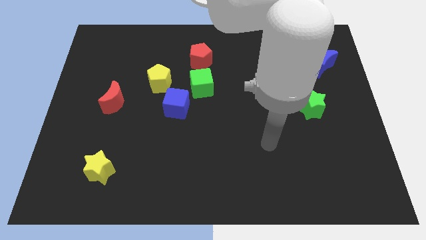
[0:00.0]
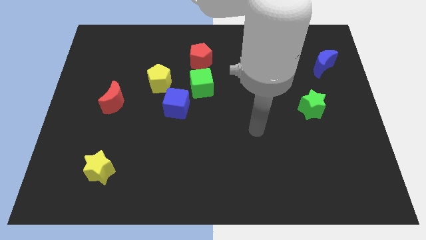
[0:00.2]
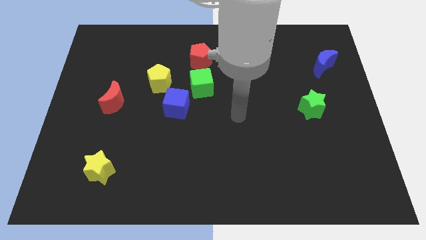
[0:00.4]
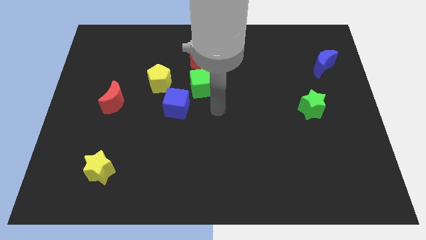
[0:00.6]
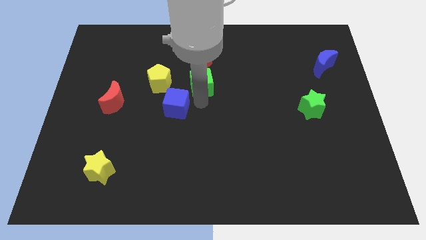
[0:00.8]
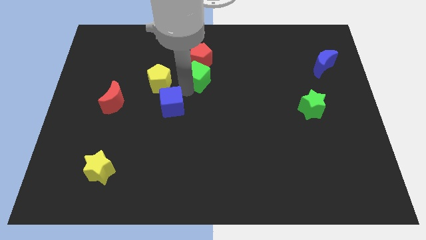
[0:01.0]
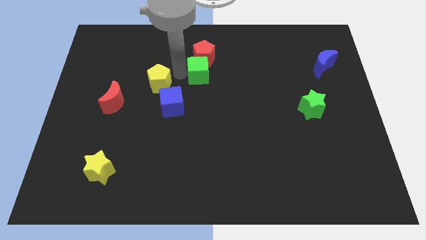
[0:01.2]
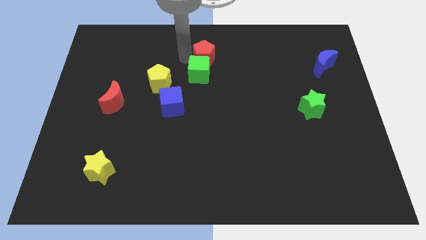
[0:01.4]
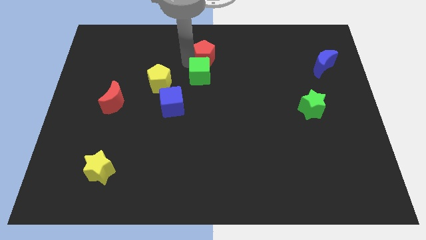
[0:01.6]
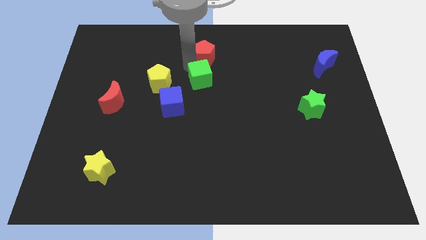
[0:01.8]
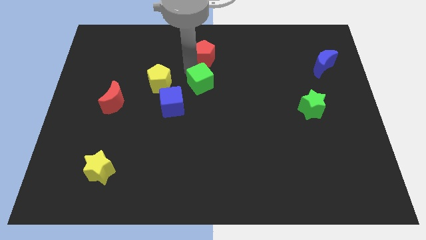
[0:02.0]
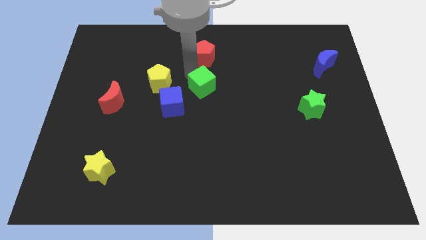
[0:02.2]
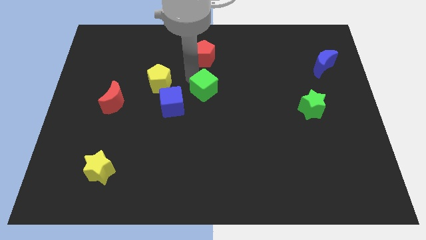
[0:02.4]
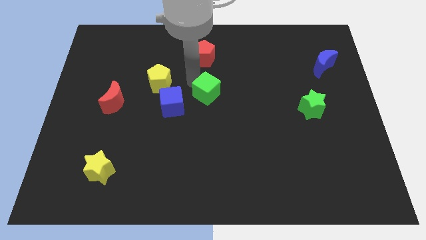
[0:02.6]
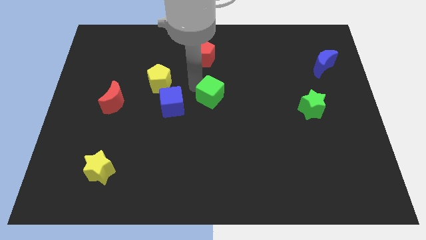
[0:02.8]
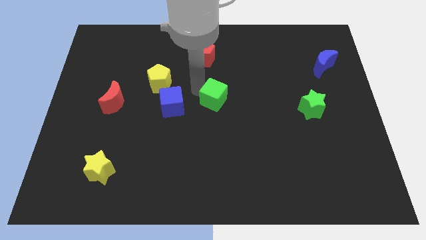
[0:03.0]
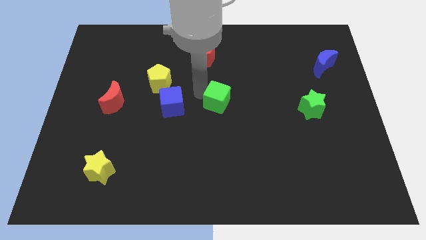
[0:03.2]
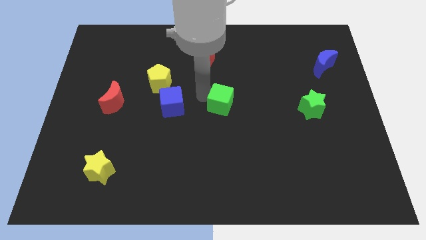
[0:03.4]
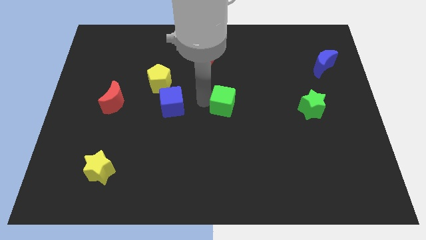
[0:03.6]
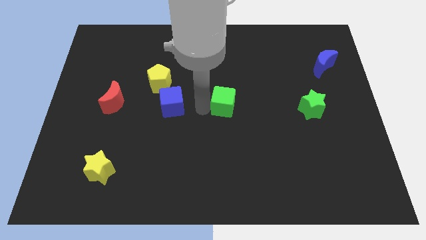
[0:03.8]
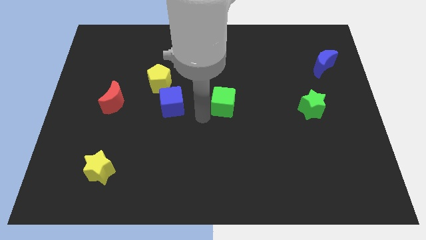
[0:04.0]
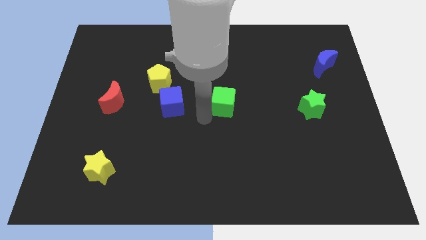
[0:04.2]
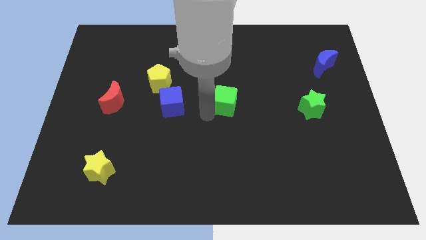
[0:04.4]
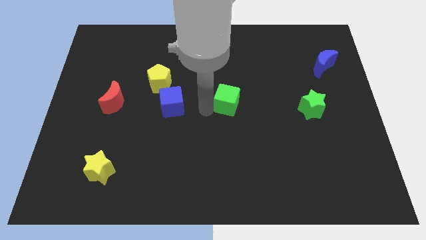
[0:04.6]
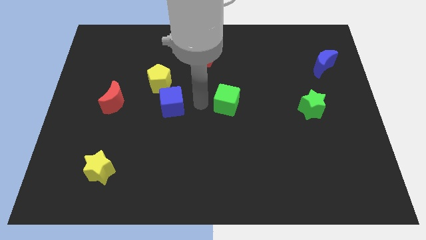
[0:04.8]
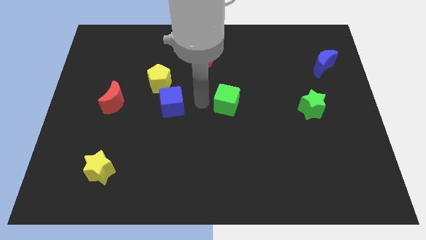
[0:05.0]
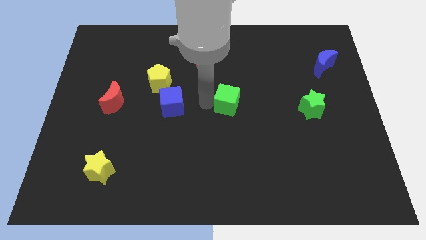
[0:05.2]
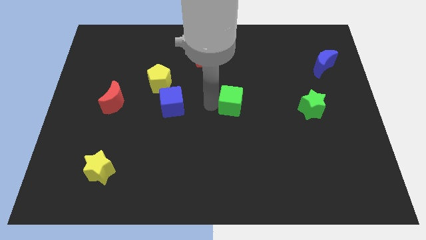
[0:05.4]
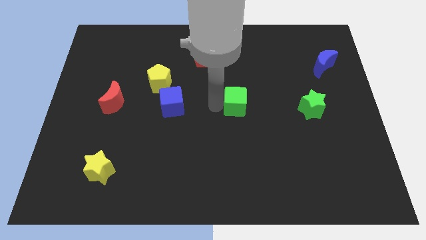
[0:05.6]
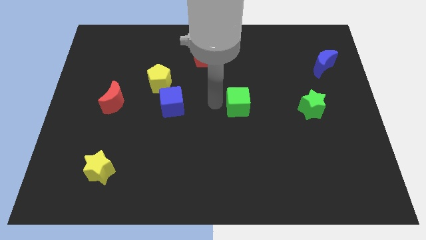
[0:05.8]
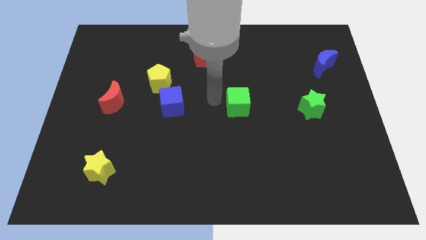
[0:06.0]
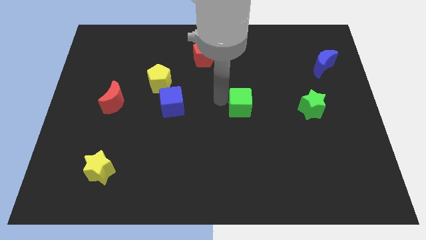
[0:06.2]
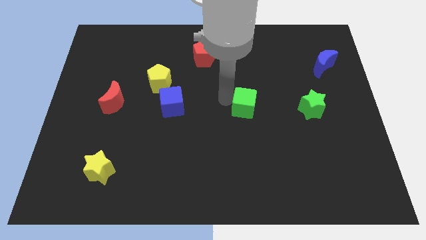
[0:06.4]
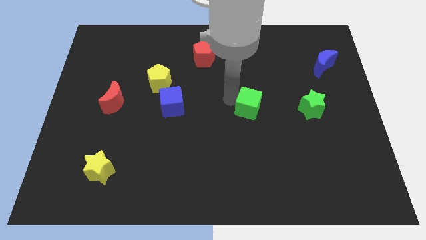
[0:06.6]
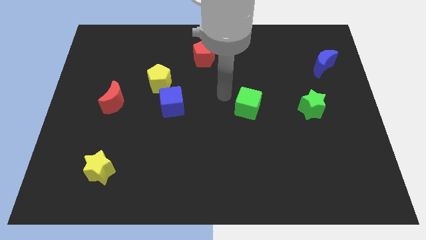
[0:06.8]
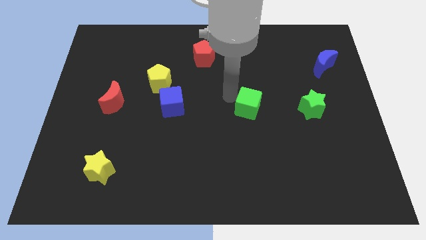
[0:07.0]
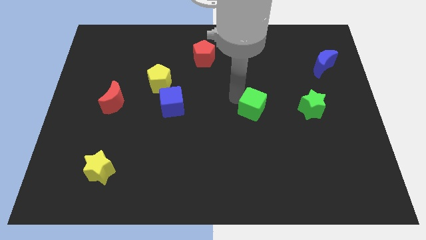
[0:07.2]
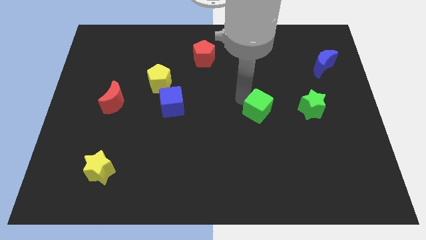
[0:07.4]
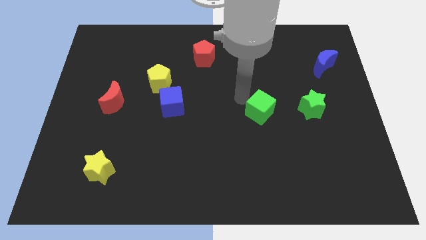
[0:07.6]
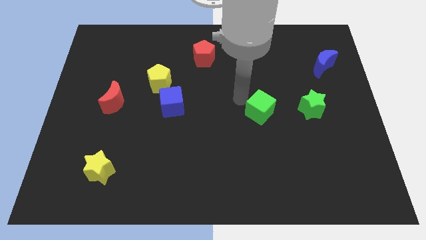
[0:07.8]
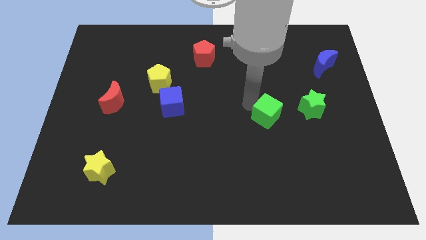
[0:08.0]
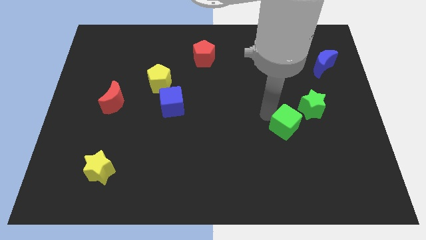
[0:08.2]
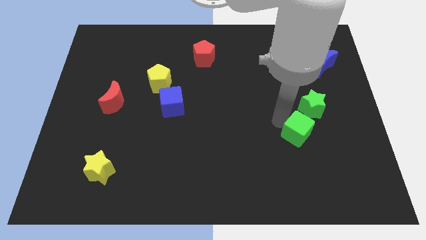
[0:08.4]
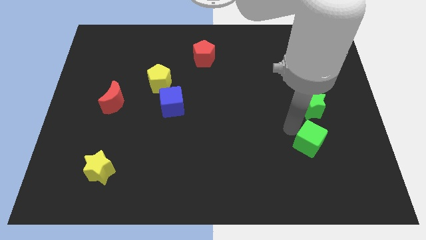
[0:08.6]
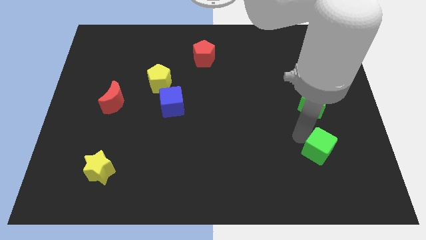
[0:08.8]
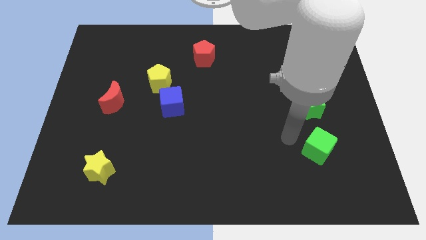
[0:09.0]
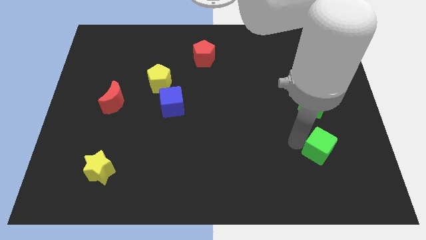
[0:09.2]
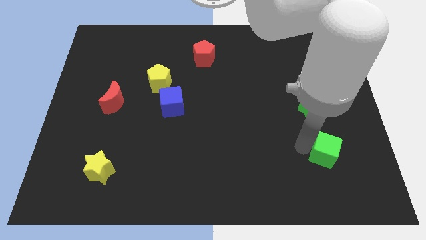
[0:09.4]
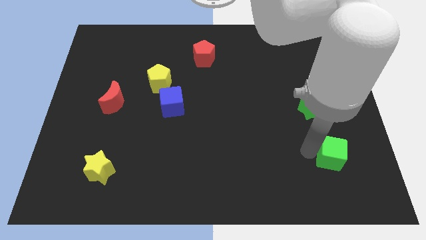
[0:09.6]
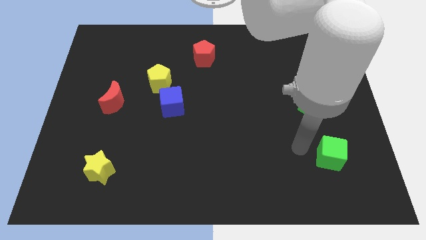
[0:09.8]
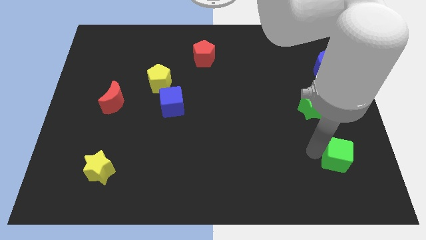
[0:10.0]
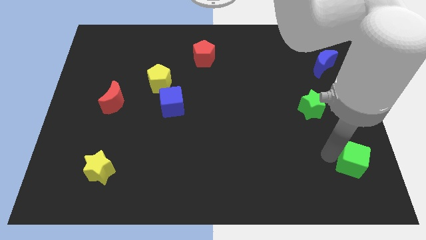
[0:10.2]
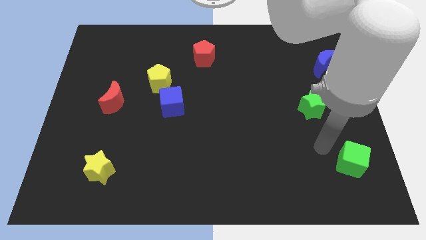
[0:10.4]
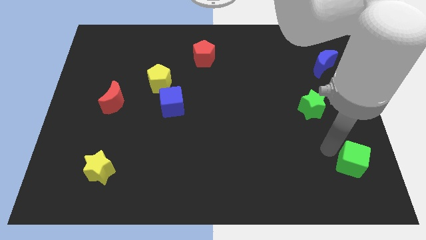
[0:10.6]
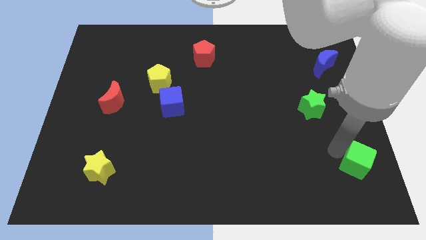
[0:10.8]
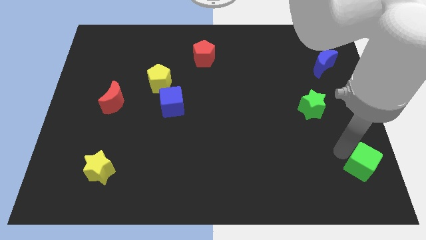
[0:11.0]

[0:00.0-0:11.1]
slide the green cube to the bottom right of the board

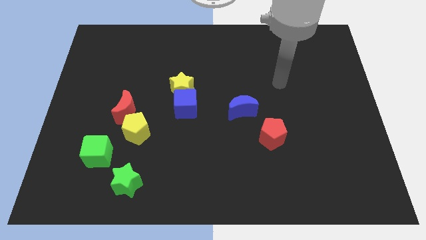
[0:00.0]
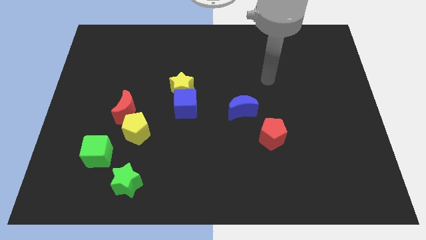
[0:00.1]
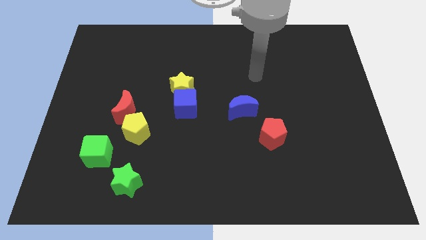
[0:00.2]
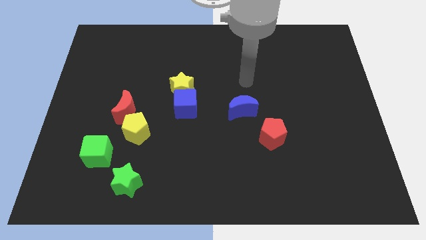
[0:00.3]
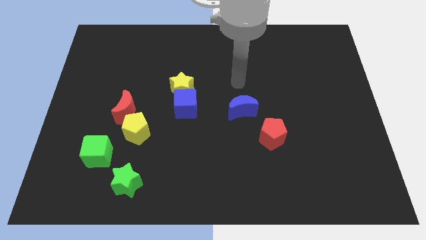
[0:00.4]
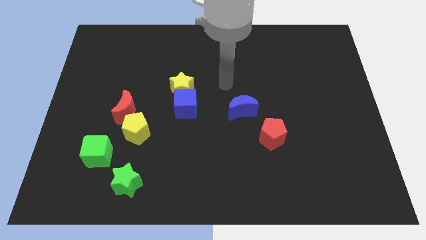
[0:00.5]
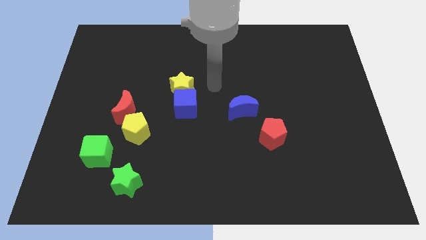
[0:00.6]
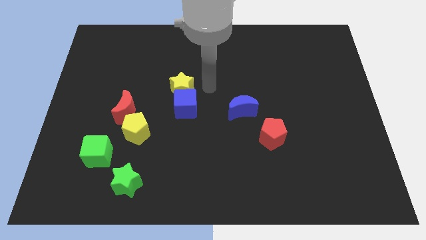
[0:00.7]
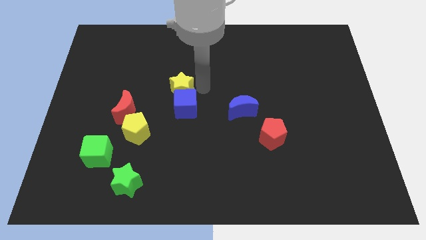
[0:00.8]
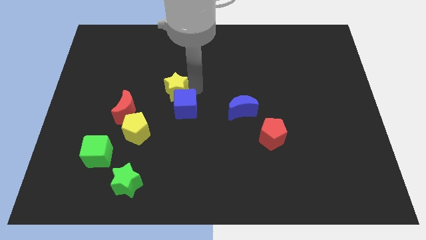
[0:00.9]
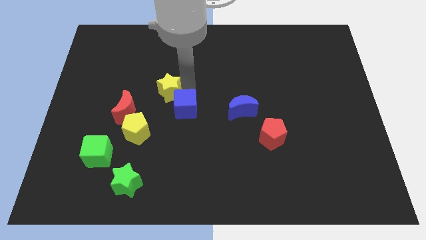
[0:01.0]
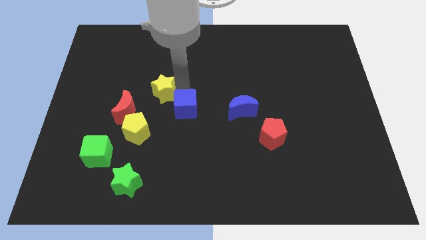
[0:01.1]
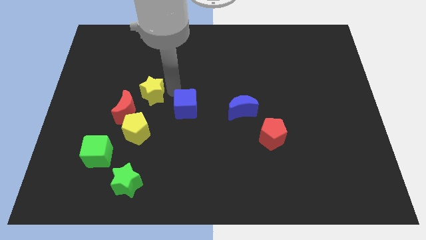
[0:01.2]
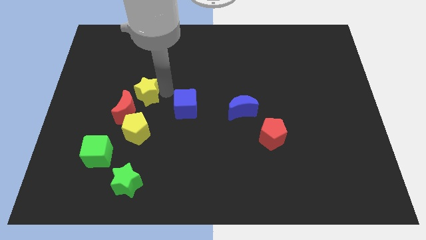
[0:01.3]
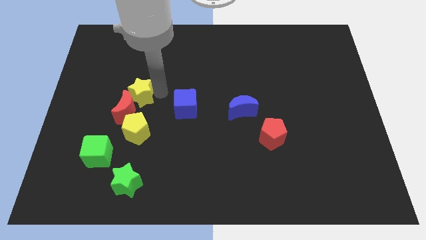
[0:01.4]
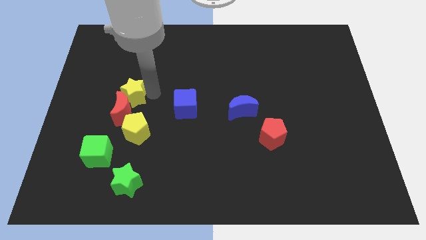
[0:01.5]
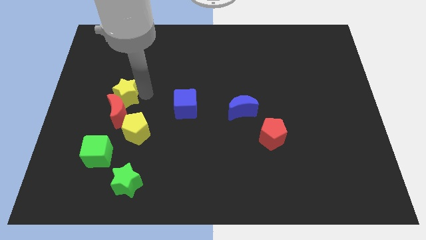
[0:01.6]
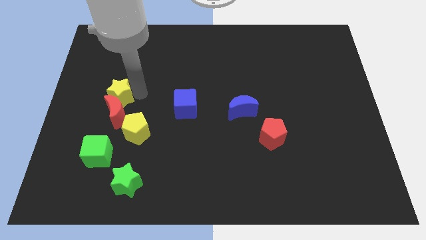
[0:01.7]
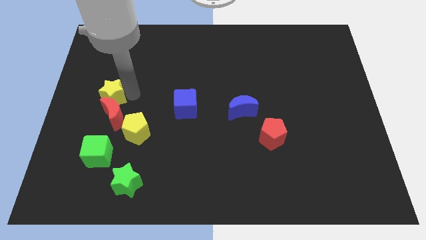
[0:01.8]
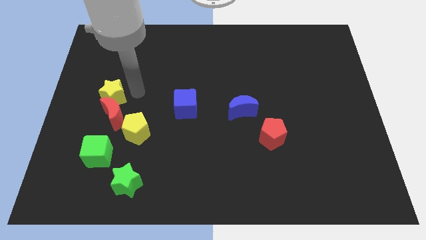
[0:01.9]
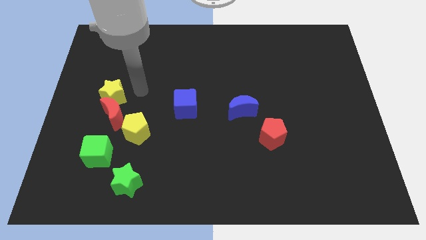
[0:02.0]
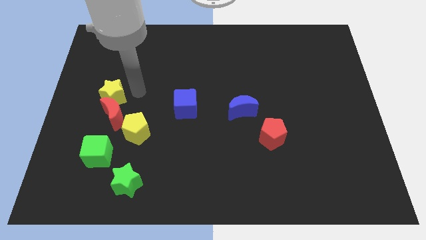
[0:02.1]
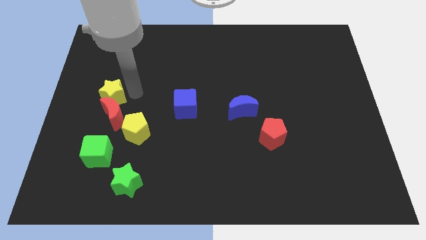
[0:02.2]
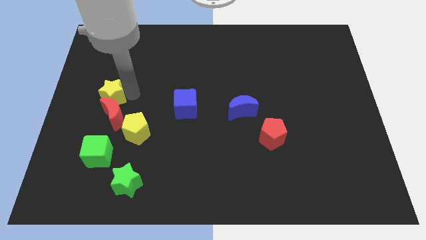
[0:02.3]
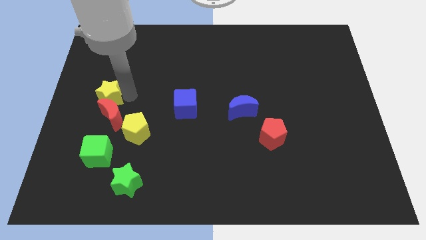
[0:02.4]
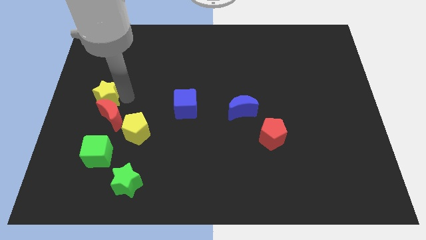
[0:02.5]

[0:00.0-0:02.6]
slide the yellow star to the left side of the board
